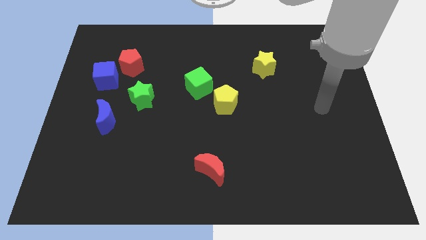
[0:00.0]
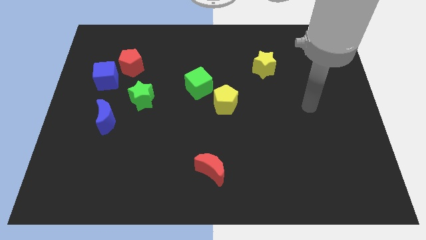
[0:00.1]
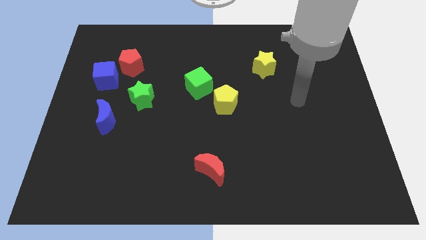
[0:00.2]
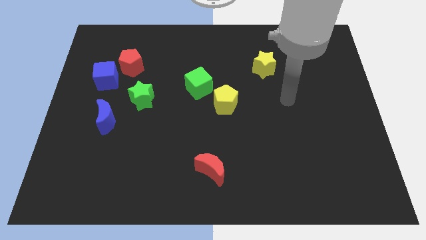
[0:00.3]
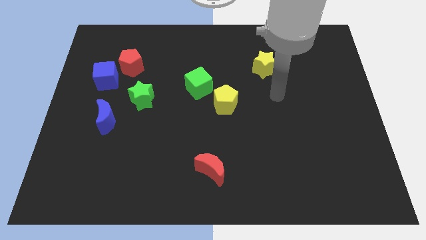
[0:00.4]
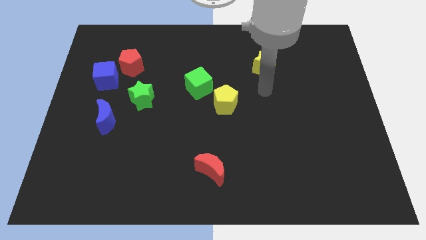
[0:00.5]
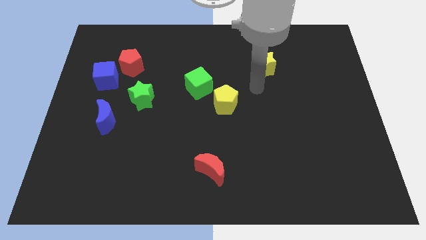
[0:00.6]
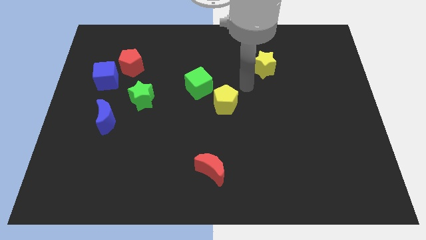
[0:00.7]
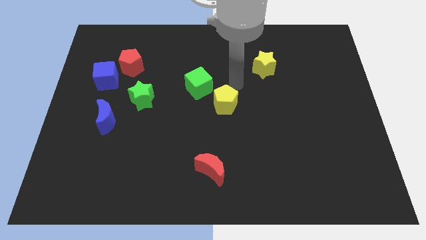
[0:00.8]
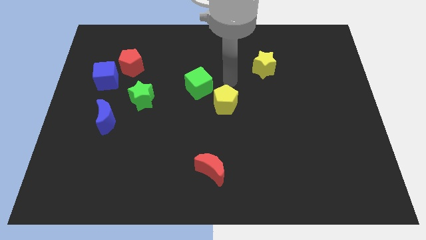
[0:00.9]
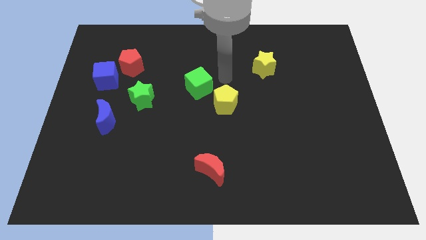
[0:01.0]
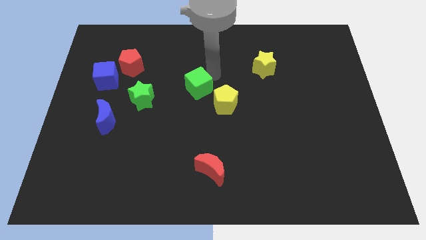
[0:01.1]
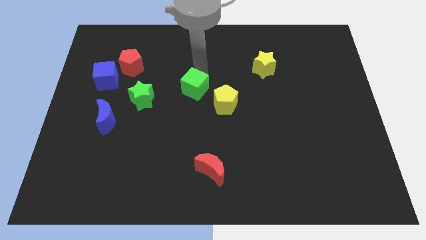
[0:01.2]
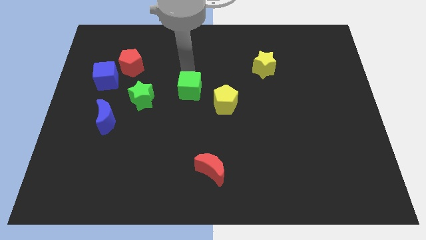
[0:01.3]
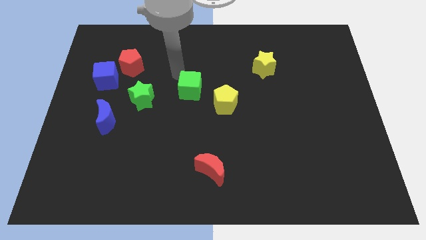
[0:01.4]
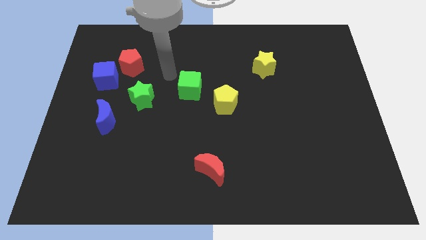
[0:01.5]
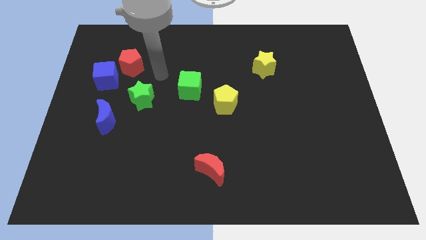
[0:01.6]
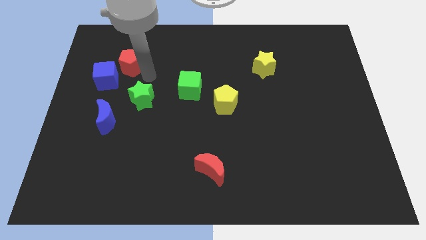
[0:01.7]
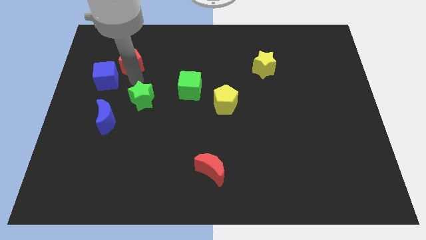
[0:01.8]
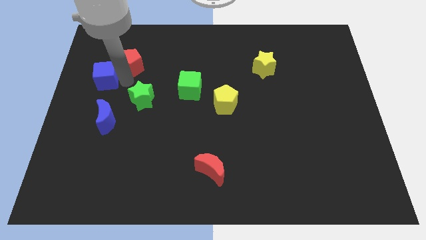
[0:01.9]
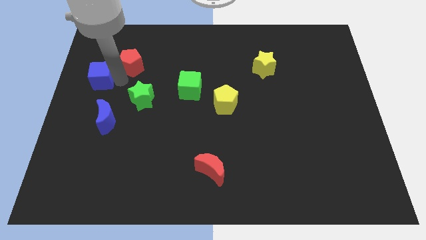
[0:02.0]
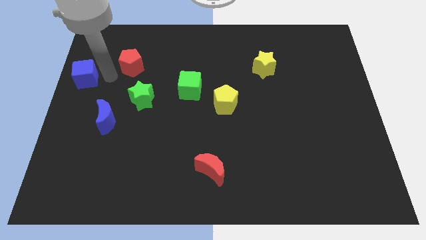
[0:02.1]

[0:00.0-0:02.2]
separate the red pentagon from the blue cube

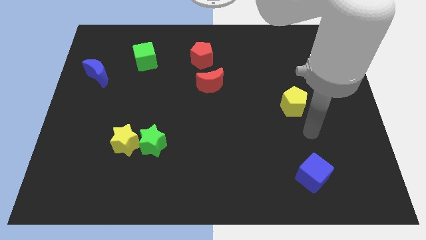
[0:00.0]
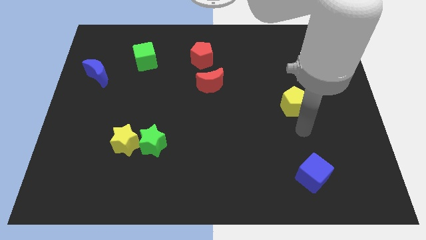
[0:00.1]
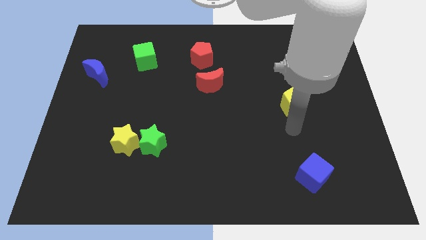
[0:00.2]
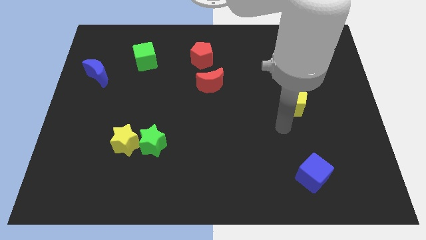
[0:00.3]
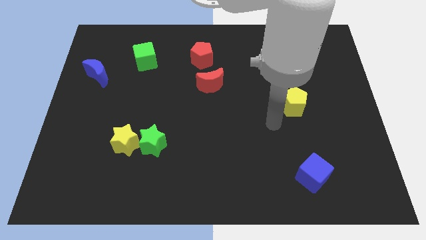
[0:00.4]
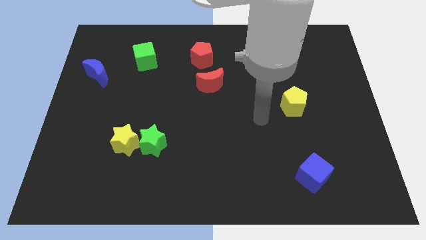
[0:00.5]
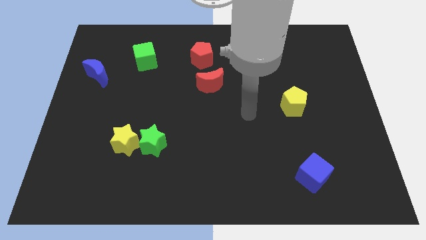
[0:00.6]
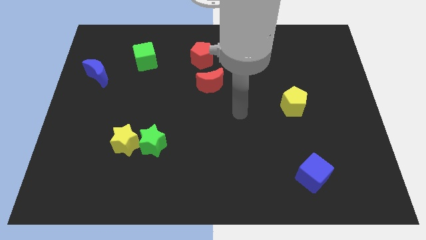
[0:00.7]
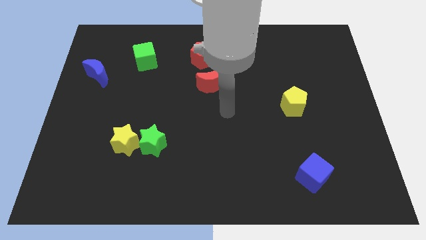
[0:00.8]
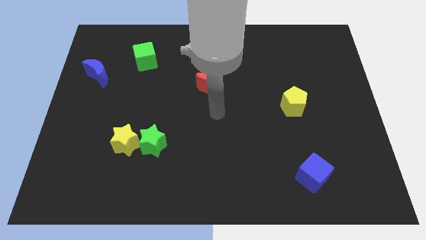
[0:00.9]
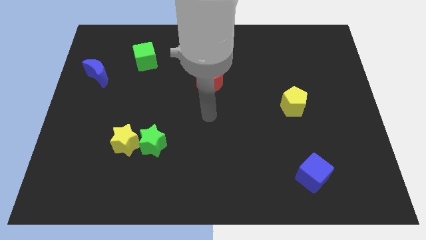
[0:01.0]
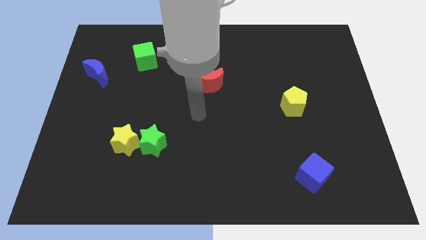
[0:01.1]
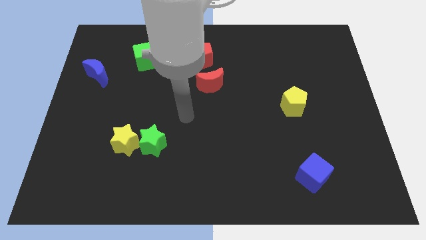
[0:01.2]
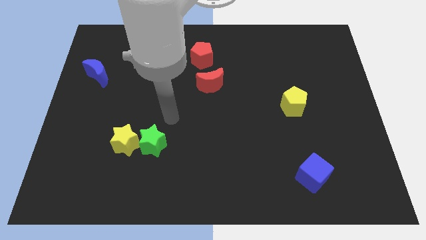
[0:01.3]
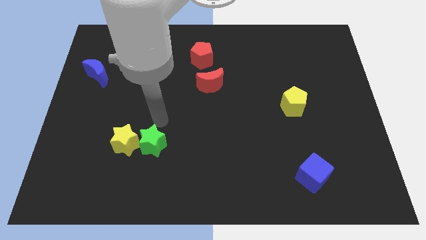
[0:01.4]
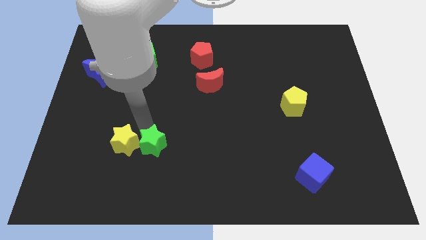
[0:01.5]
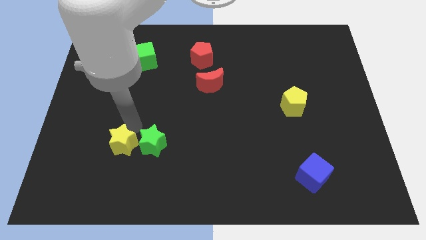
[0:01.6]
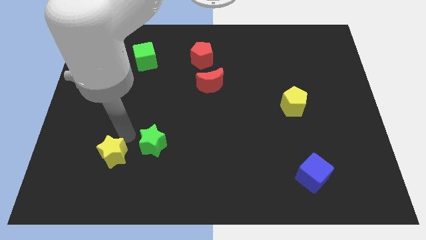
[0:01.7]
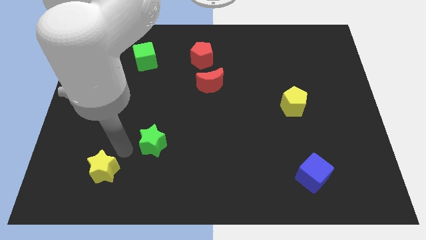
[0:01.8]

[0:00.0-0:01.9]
pull the green star apart from the yellow star

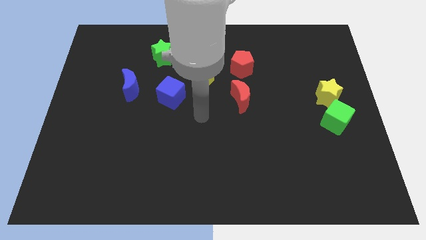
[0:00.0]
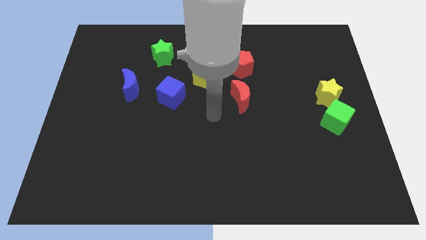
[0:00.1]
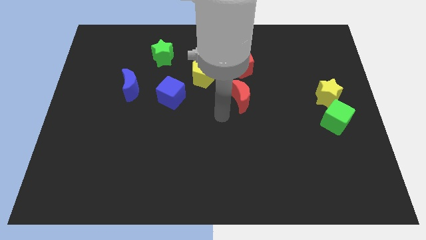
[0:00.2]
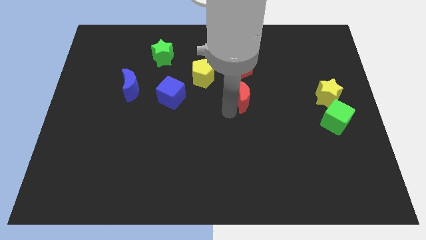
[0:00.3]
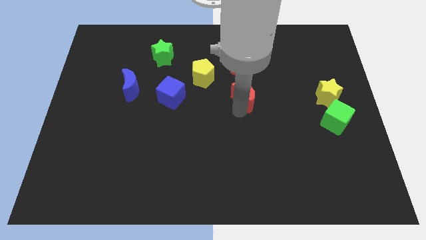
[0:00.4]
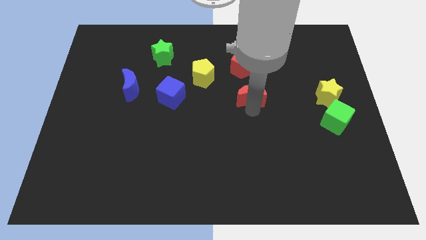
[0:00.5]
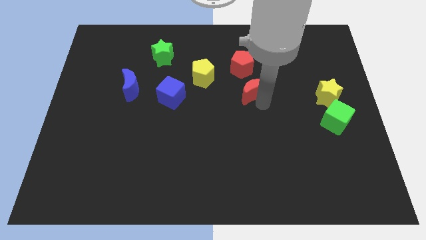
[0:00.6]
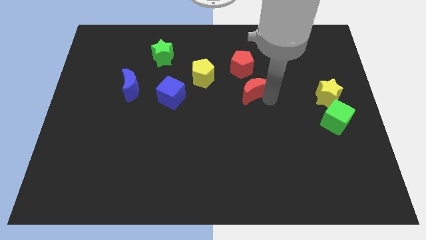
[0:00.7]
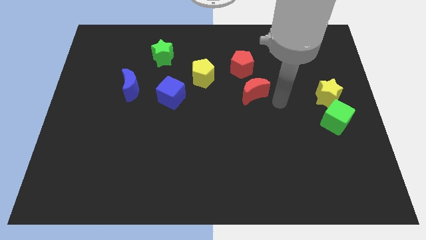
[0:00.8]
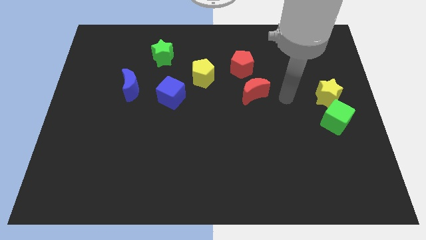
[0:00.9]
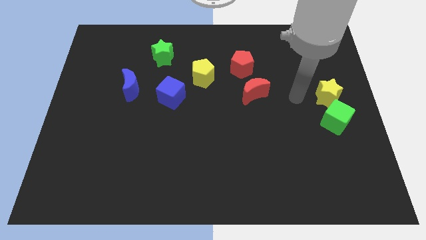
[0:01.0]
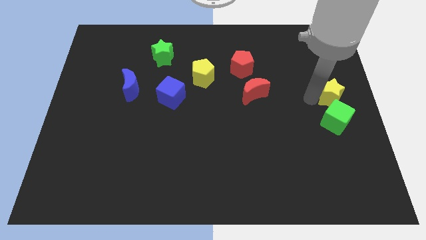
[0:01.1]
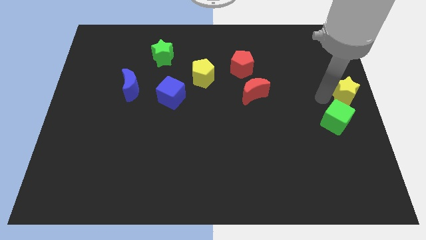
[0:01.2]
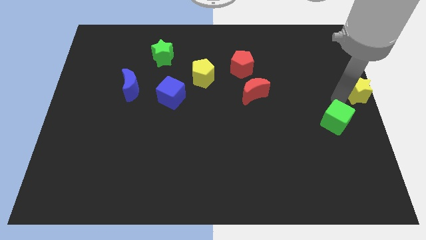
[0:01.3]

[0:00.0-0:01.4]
pull the green cube apart from the yellow star

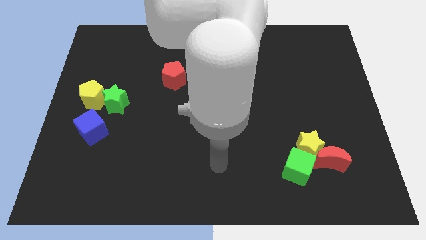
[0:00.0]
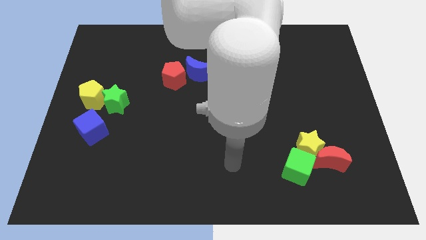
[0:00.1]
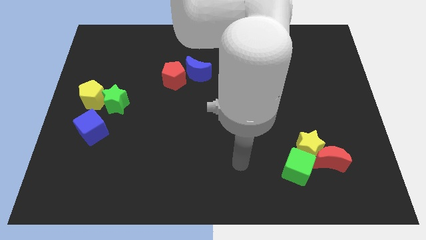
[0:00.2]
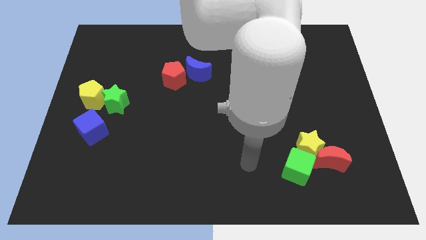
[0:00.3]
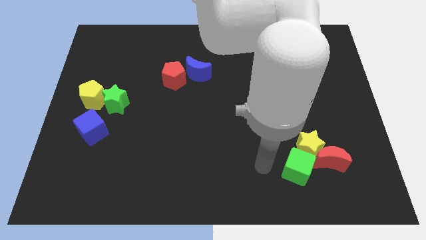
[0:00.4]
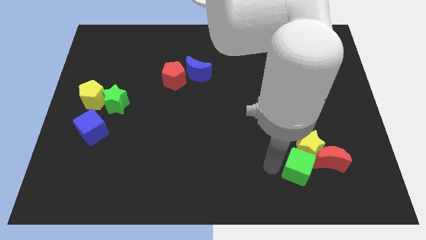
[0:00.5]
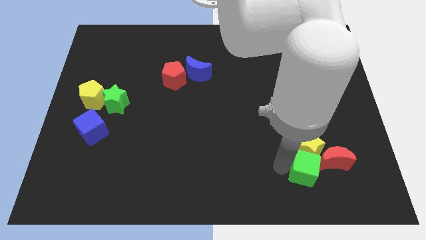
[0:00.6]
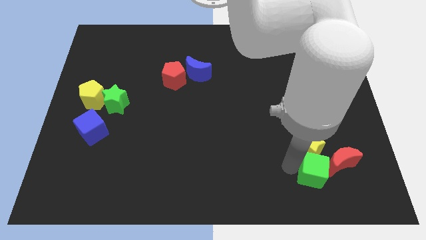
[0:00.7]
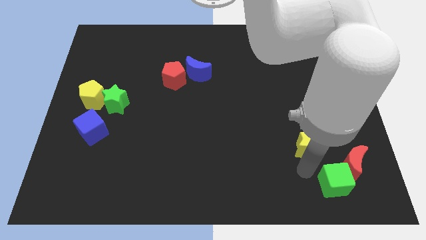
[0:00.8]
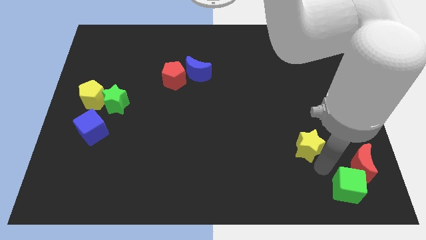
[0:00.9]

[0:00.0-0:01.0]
separate the yellow star from the red moon and green cube

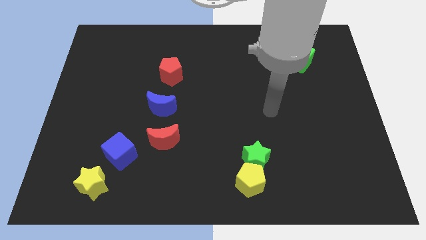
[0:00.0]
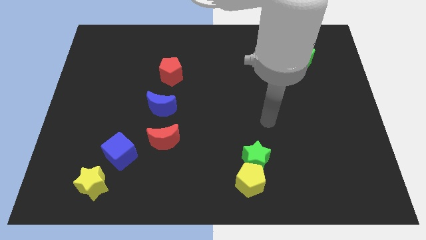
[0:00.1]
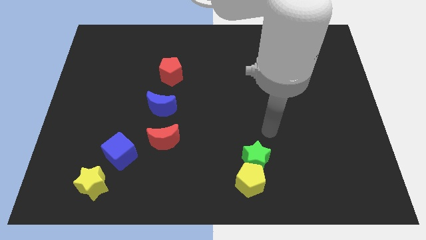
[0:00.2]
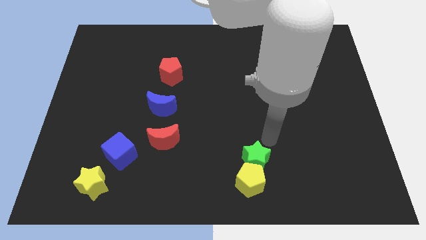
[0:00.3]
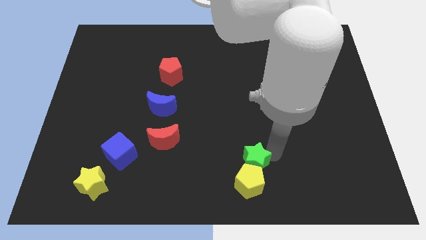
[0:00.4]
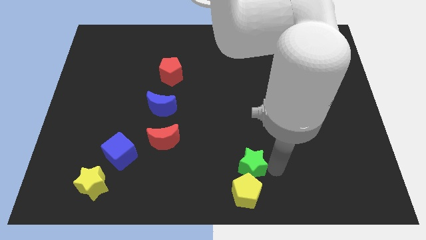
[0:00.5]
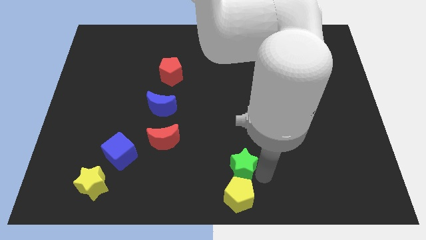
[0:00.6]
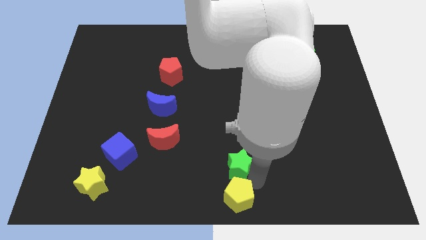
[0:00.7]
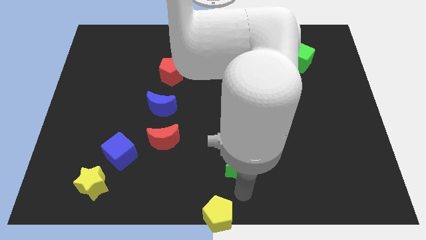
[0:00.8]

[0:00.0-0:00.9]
separate the green star from the yellow pentagon

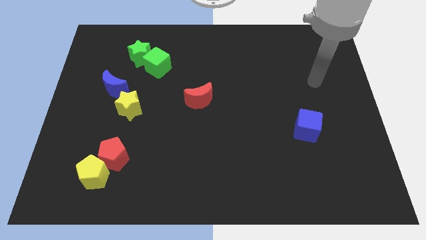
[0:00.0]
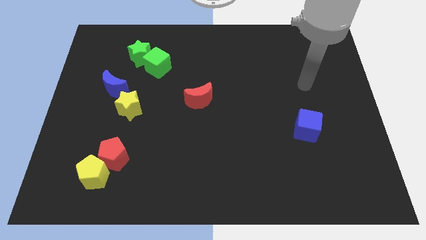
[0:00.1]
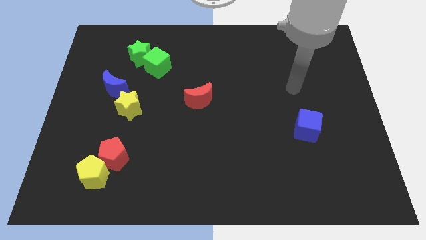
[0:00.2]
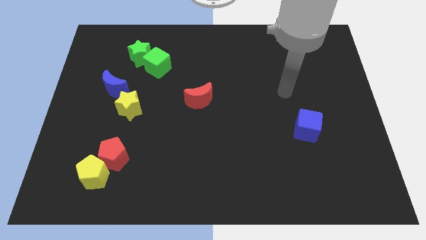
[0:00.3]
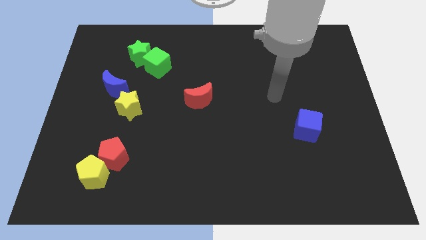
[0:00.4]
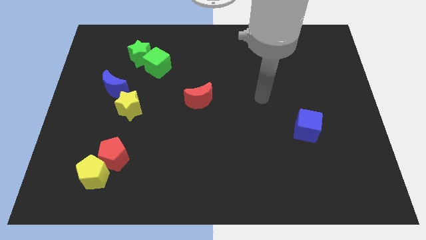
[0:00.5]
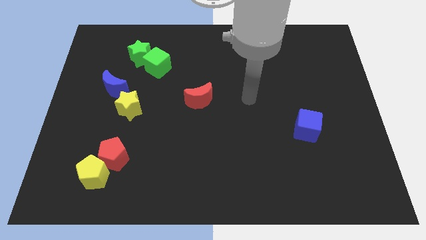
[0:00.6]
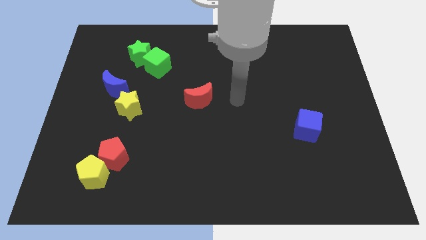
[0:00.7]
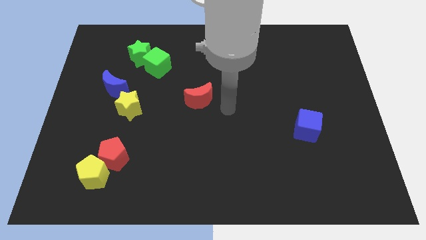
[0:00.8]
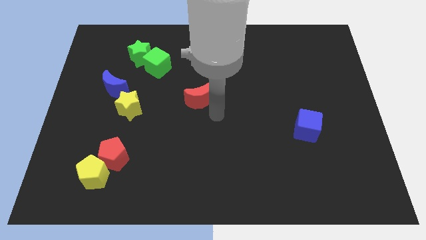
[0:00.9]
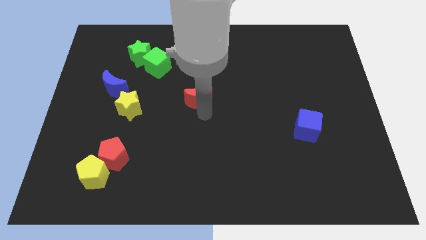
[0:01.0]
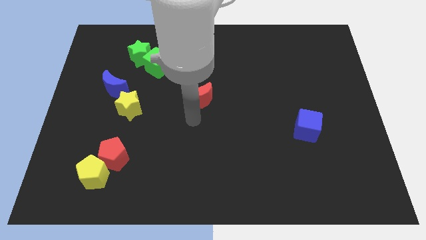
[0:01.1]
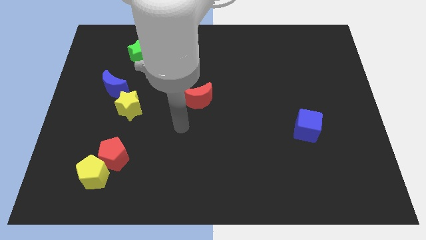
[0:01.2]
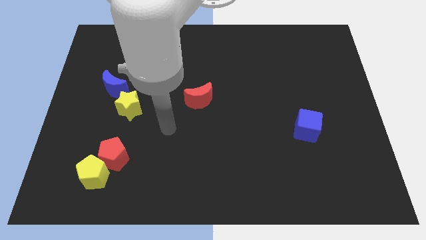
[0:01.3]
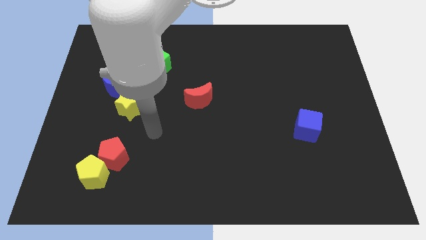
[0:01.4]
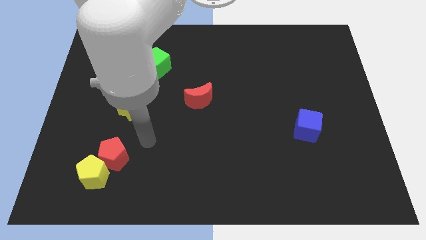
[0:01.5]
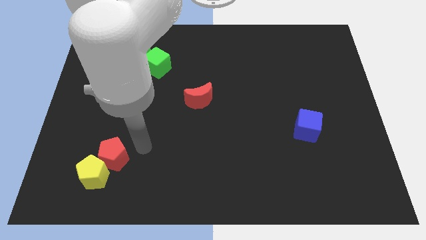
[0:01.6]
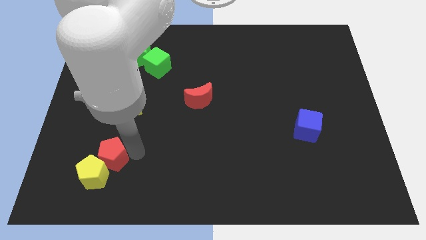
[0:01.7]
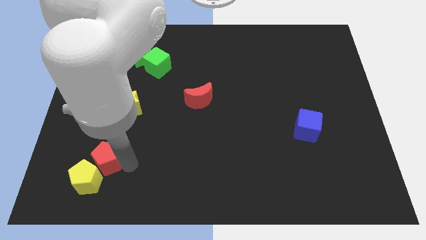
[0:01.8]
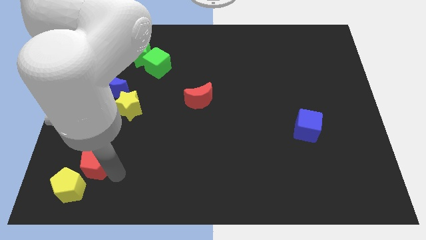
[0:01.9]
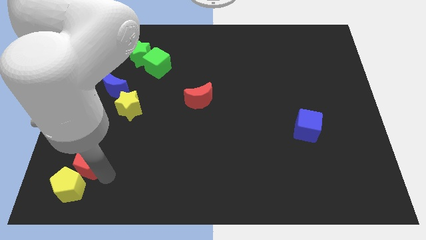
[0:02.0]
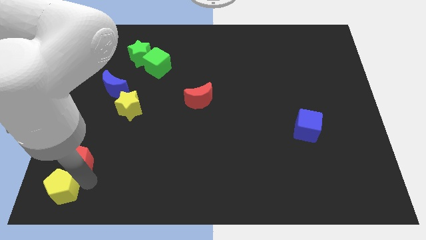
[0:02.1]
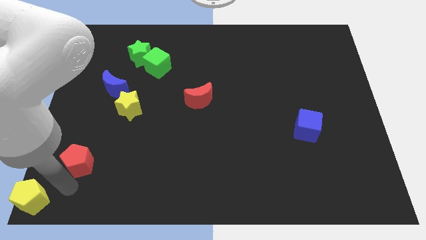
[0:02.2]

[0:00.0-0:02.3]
move the red pentagon away from the yellow pentagon
